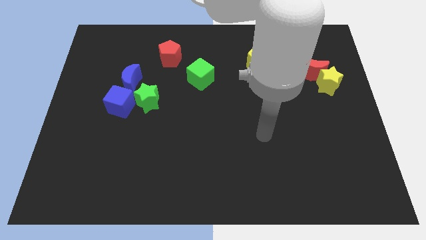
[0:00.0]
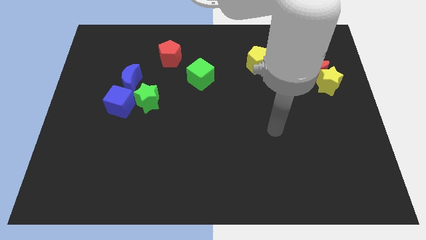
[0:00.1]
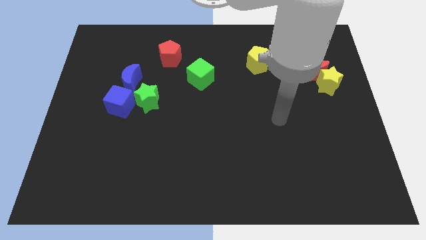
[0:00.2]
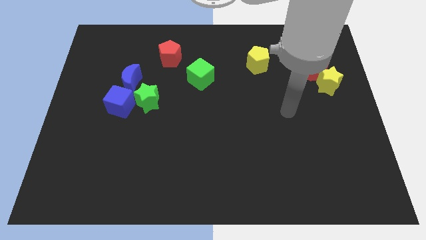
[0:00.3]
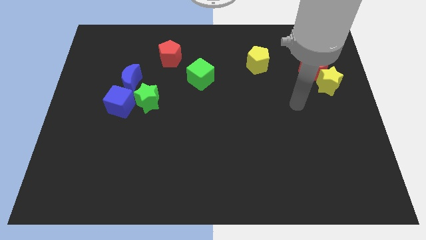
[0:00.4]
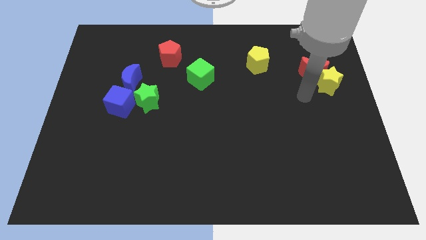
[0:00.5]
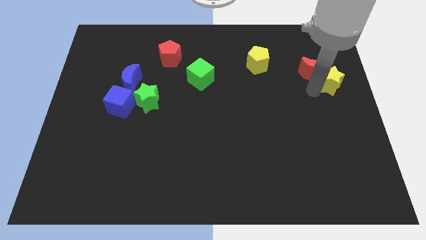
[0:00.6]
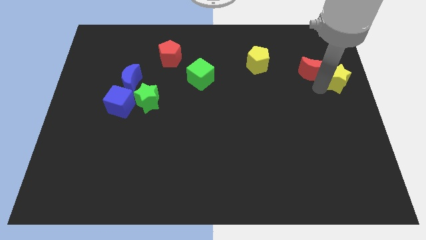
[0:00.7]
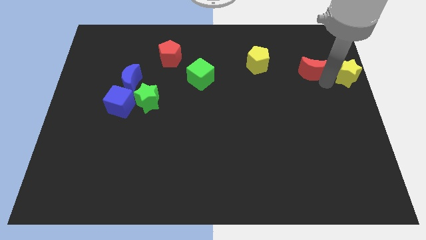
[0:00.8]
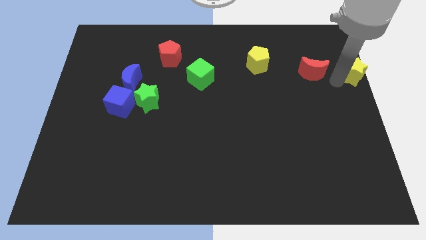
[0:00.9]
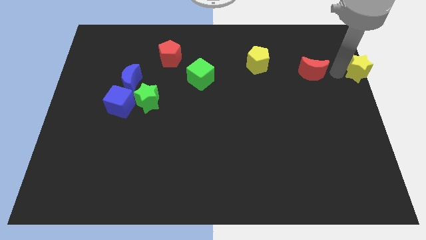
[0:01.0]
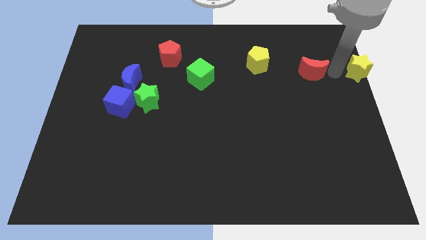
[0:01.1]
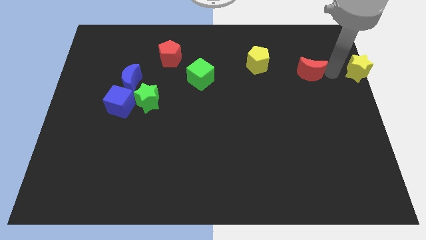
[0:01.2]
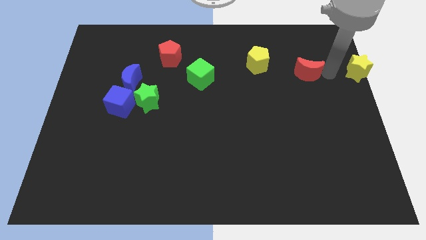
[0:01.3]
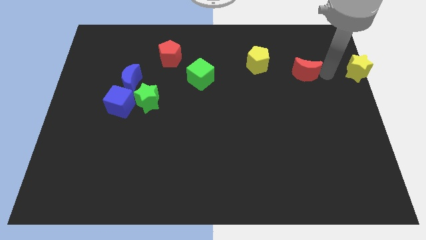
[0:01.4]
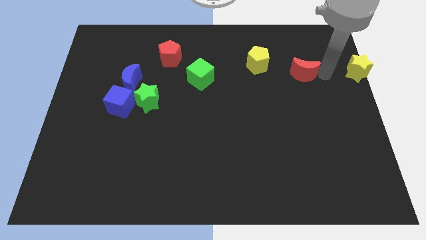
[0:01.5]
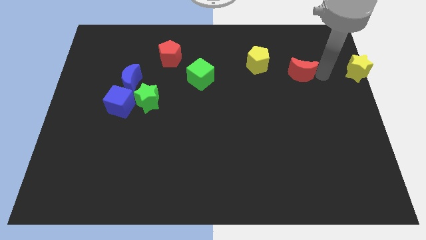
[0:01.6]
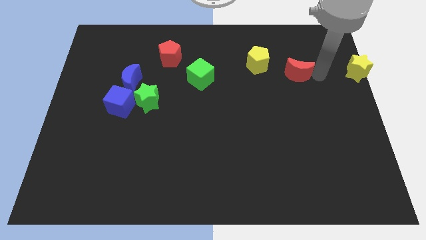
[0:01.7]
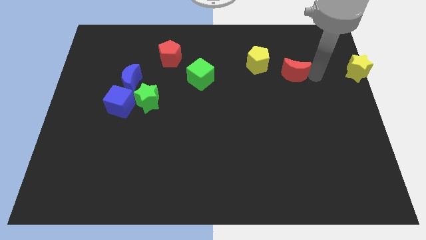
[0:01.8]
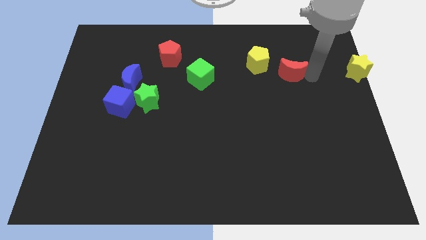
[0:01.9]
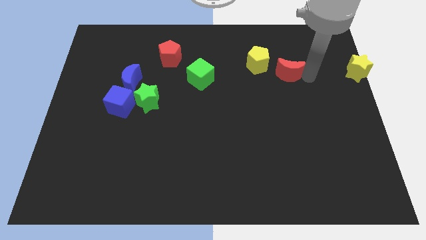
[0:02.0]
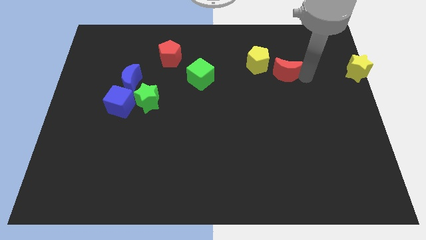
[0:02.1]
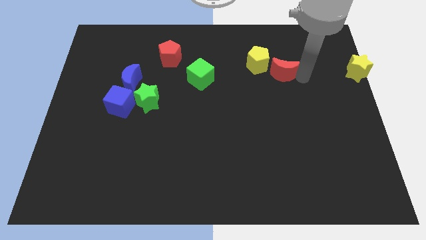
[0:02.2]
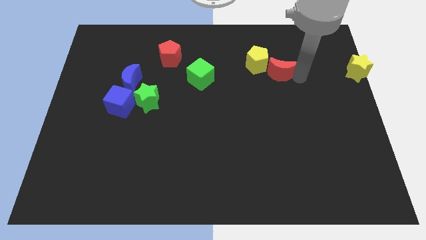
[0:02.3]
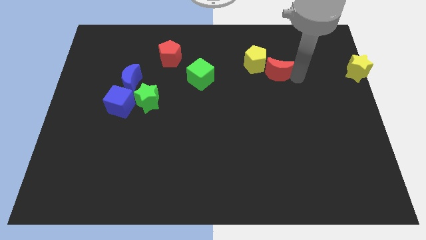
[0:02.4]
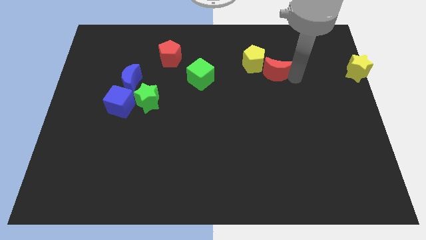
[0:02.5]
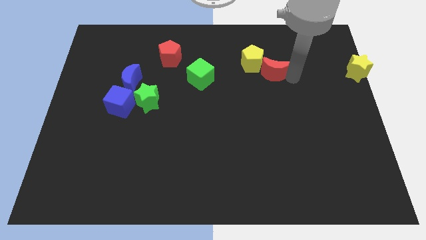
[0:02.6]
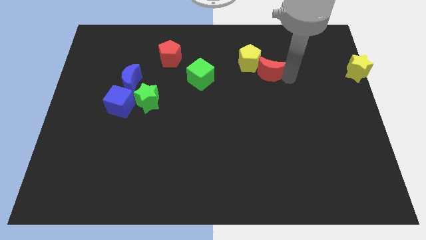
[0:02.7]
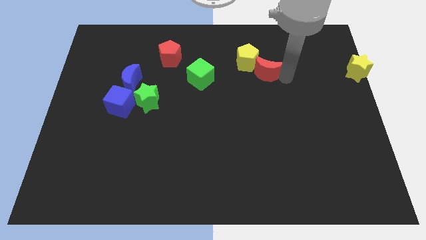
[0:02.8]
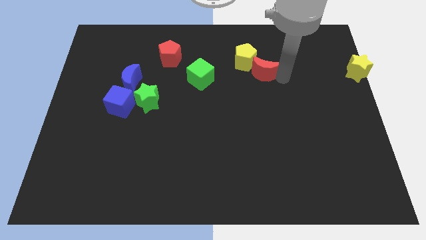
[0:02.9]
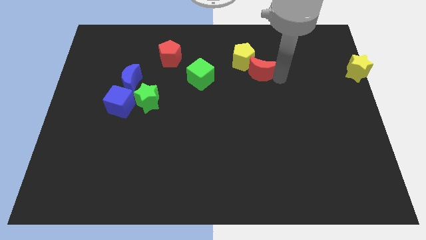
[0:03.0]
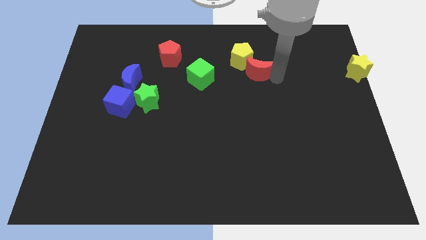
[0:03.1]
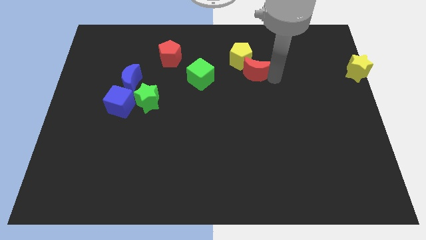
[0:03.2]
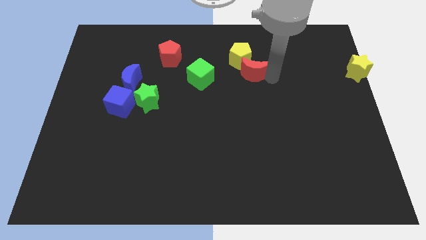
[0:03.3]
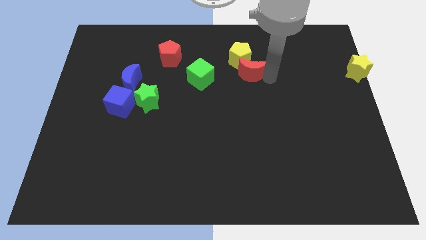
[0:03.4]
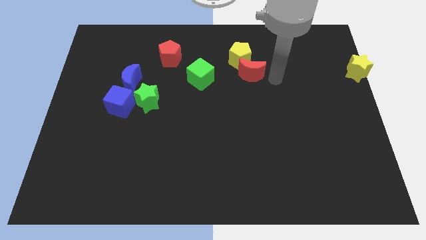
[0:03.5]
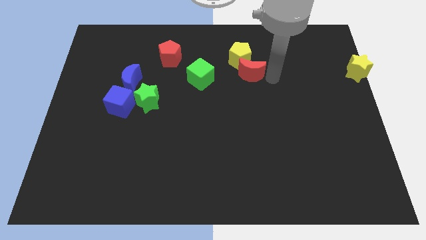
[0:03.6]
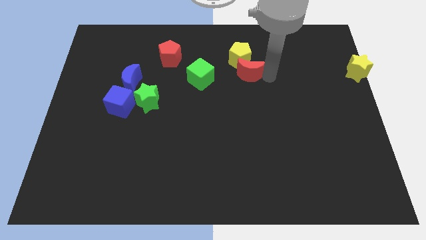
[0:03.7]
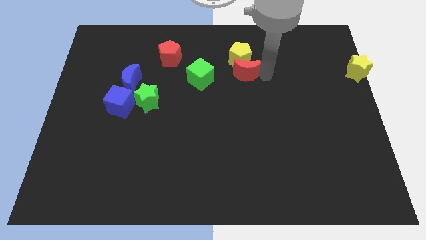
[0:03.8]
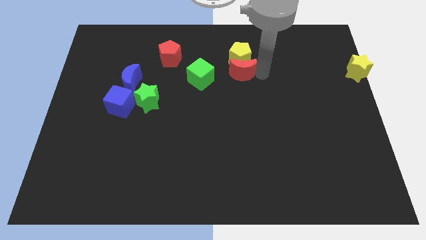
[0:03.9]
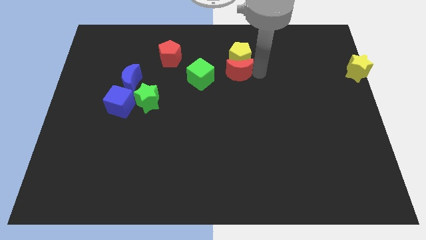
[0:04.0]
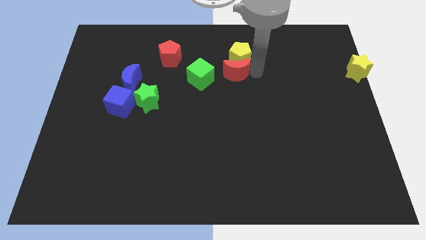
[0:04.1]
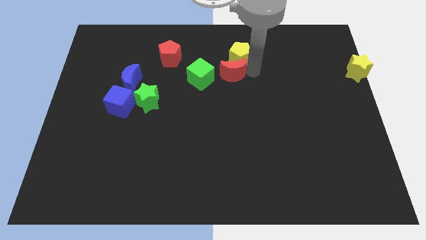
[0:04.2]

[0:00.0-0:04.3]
push the red moon to the left

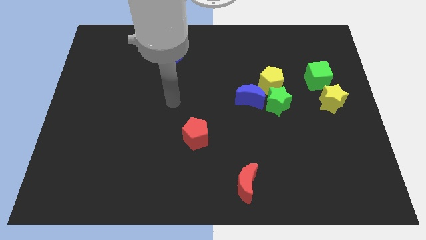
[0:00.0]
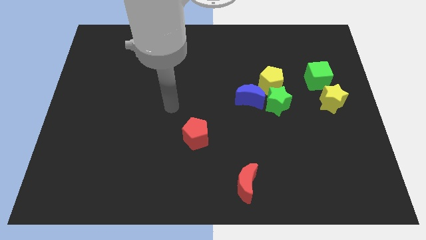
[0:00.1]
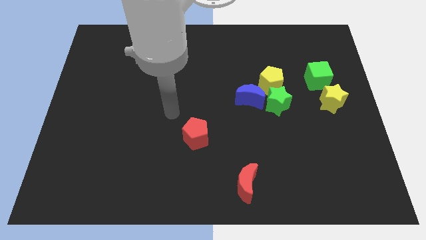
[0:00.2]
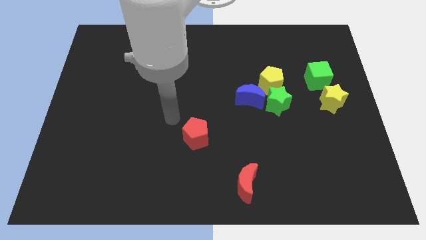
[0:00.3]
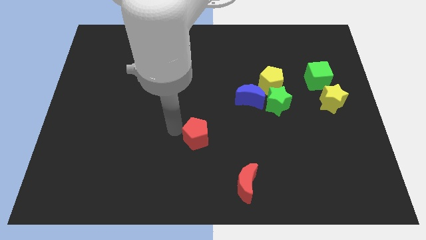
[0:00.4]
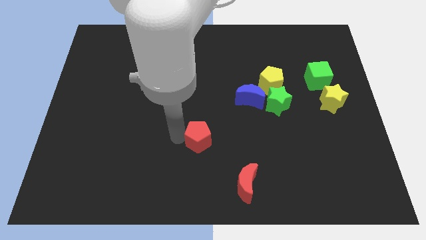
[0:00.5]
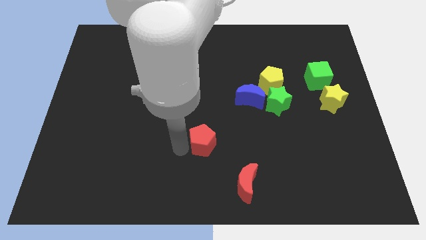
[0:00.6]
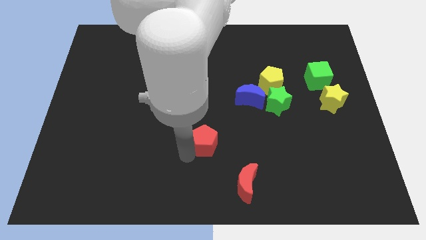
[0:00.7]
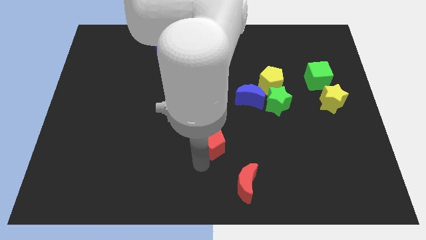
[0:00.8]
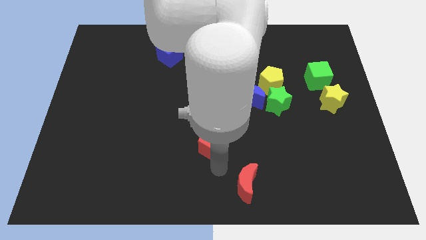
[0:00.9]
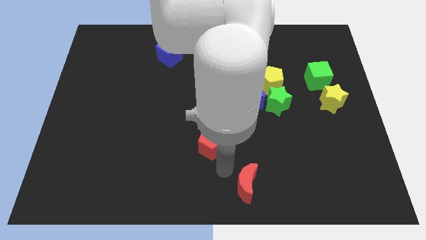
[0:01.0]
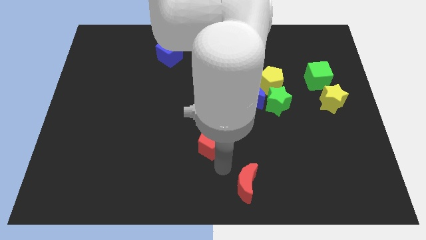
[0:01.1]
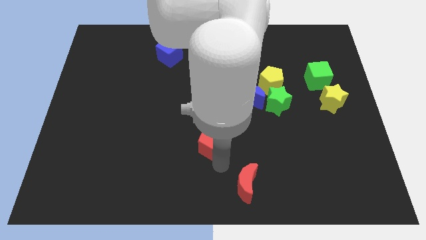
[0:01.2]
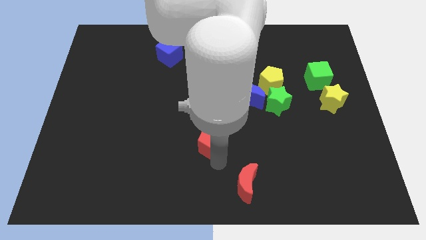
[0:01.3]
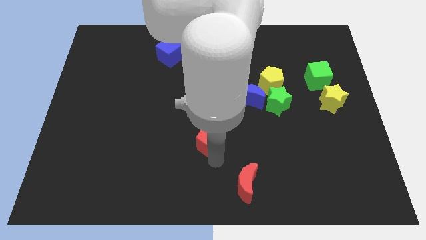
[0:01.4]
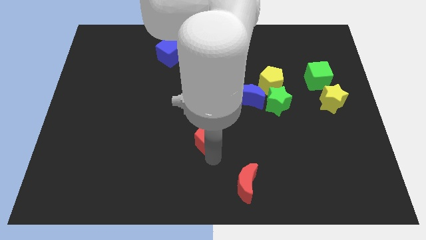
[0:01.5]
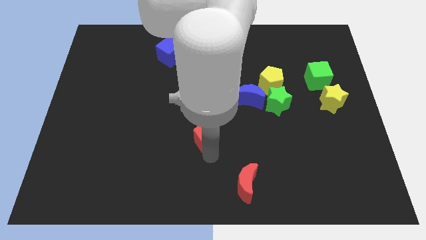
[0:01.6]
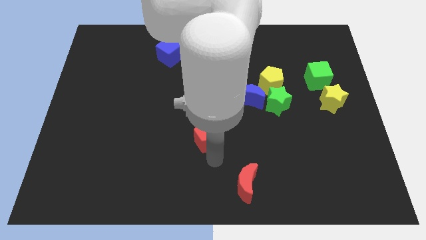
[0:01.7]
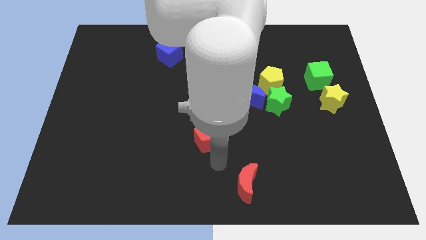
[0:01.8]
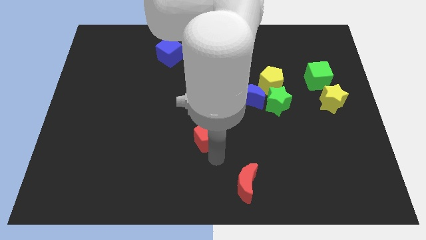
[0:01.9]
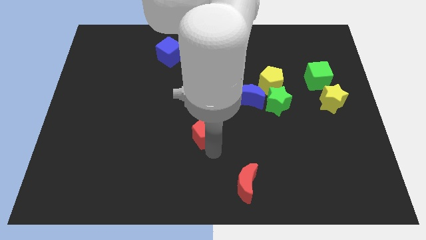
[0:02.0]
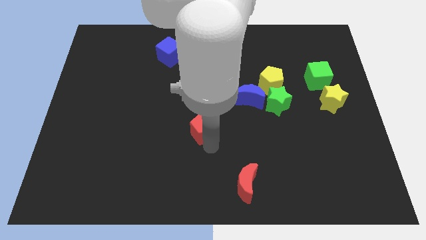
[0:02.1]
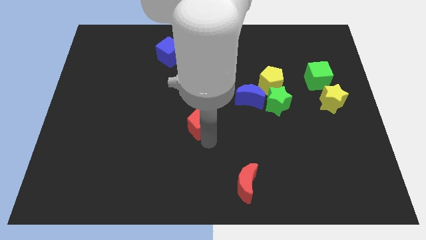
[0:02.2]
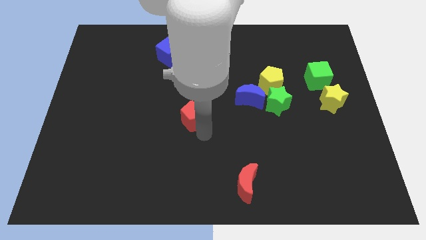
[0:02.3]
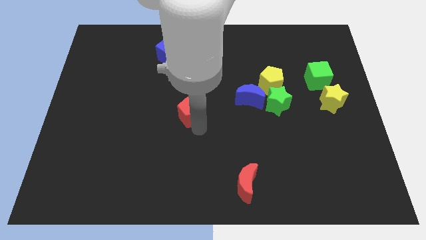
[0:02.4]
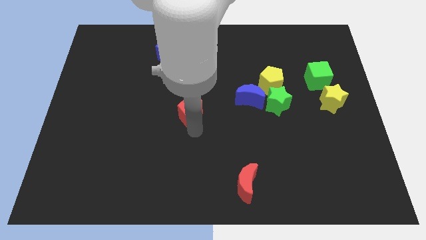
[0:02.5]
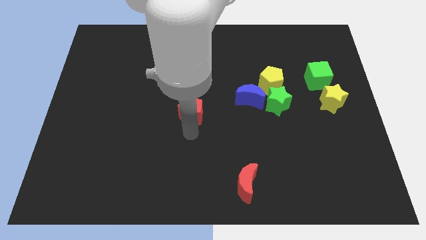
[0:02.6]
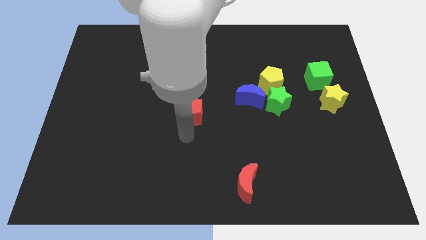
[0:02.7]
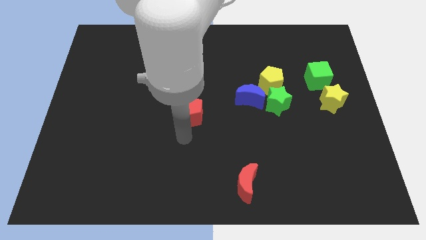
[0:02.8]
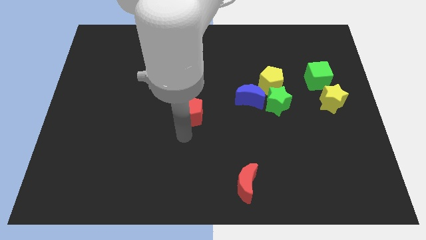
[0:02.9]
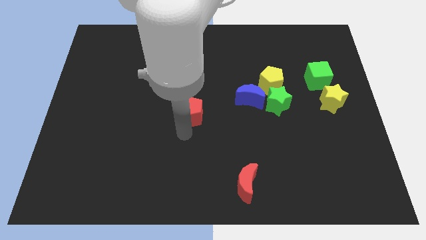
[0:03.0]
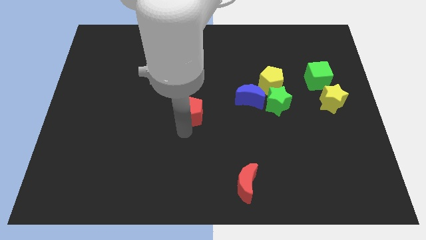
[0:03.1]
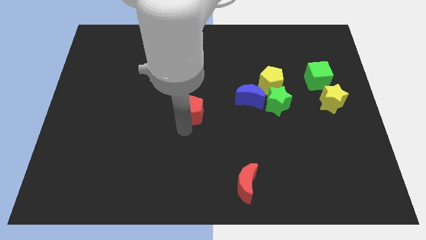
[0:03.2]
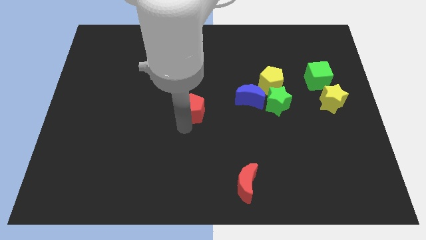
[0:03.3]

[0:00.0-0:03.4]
slightly push the red pentagon upwards

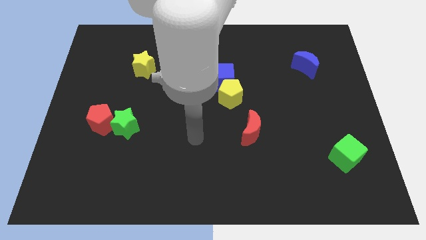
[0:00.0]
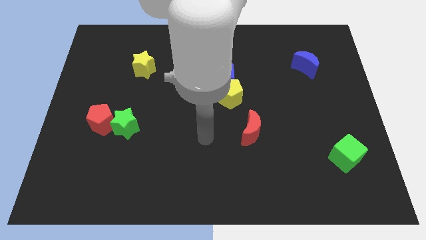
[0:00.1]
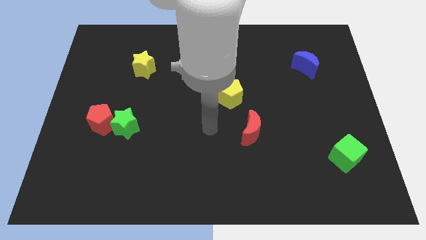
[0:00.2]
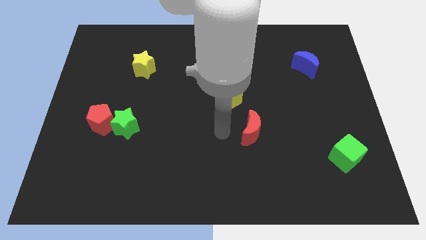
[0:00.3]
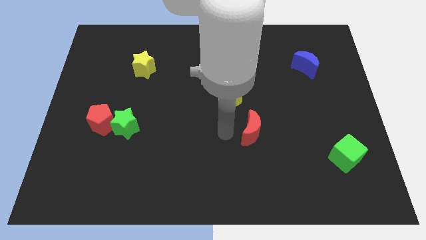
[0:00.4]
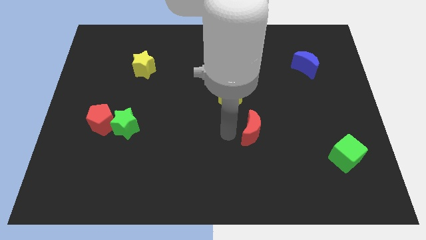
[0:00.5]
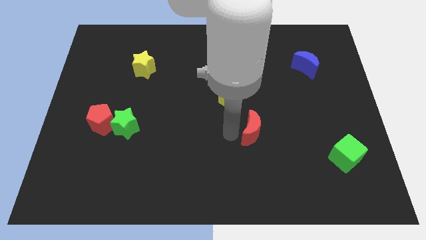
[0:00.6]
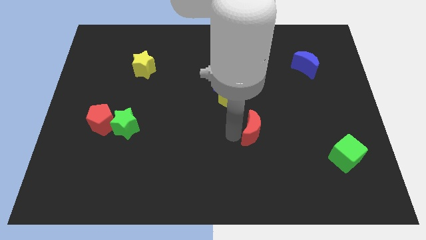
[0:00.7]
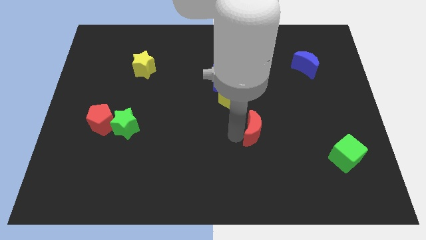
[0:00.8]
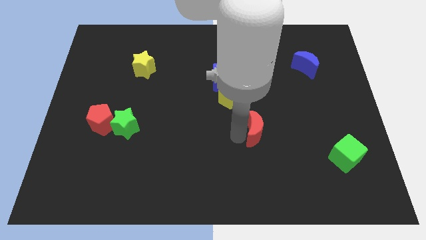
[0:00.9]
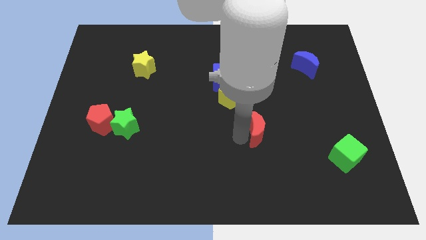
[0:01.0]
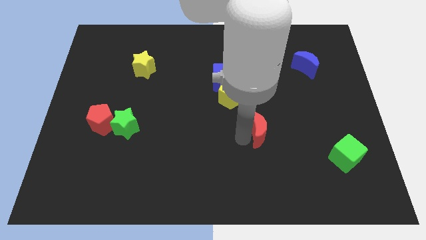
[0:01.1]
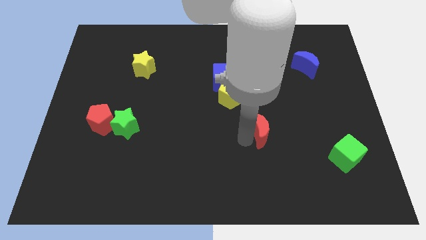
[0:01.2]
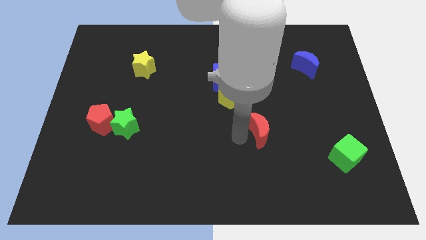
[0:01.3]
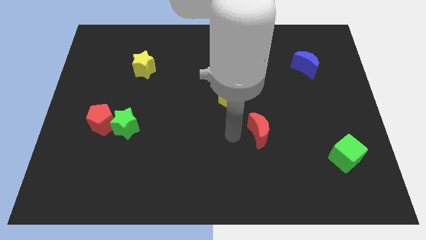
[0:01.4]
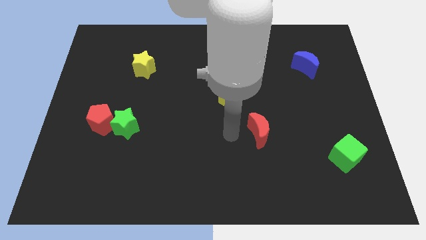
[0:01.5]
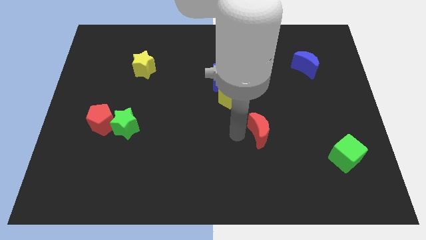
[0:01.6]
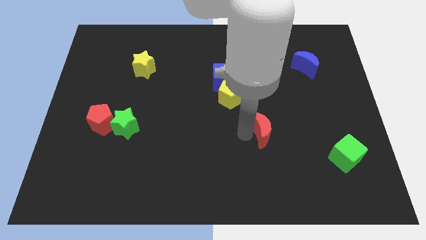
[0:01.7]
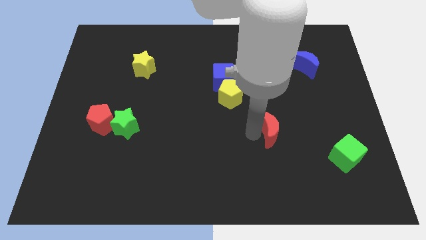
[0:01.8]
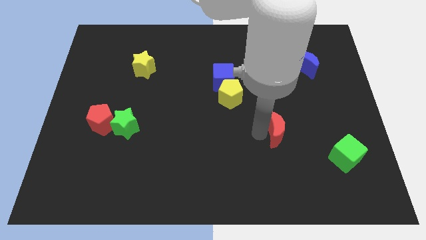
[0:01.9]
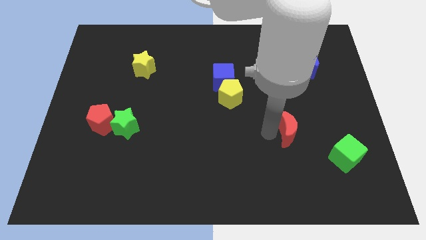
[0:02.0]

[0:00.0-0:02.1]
slightly slide the red moon right
